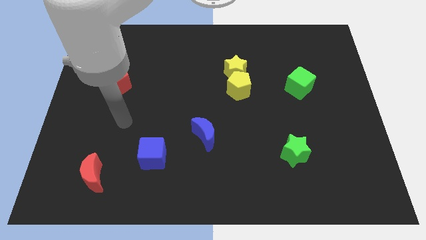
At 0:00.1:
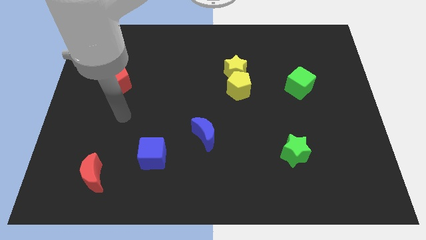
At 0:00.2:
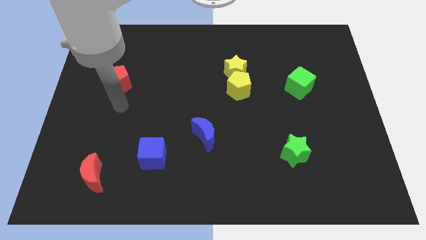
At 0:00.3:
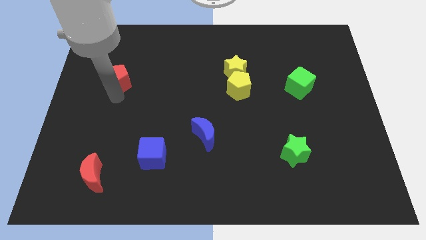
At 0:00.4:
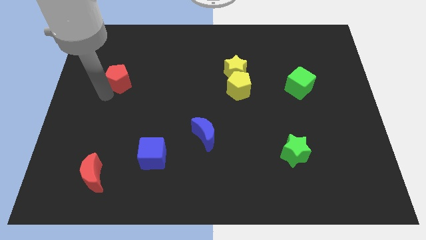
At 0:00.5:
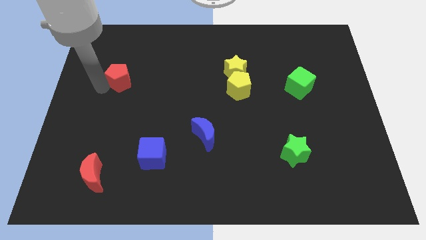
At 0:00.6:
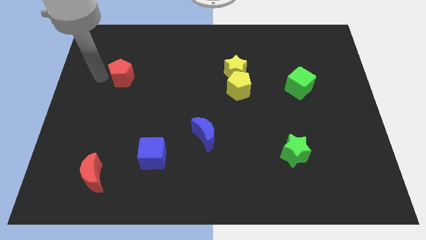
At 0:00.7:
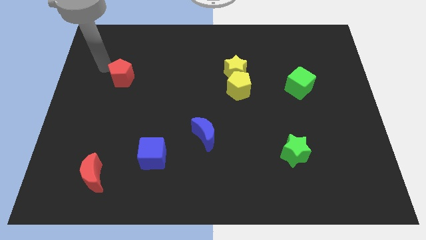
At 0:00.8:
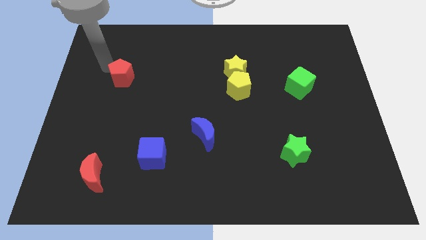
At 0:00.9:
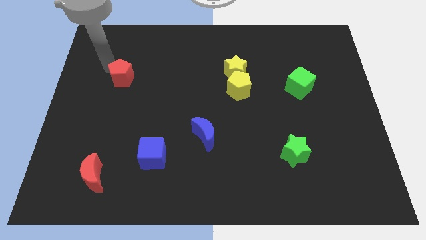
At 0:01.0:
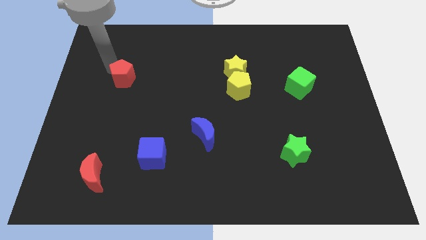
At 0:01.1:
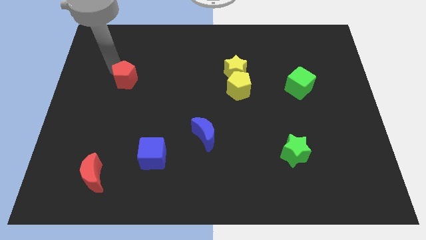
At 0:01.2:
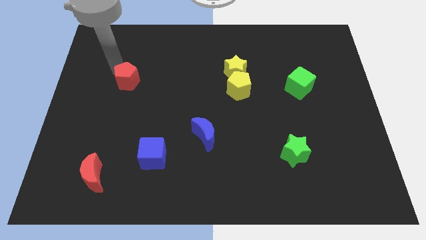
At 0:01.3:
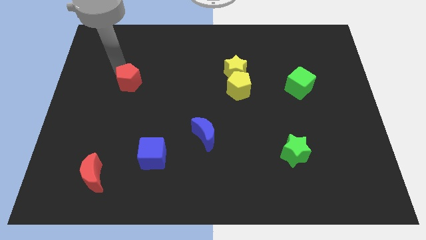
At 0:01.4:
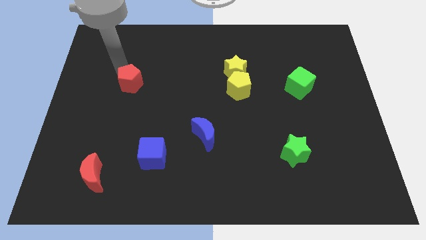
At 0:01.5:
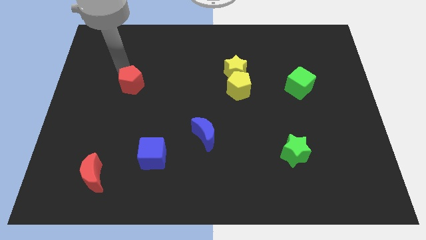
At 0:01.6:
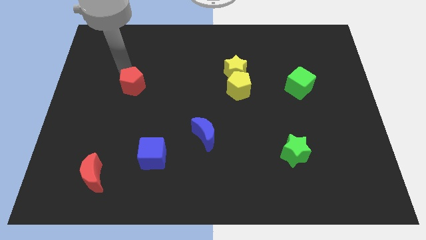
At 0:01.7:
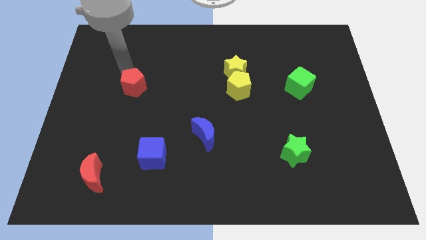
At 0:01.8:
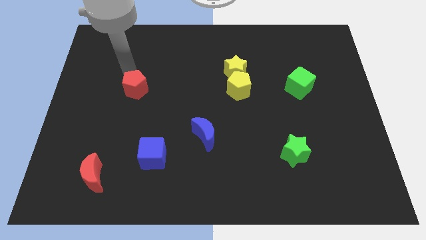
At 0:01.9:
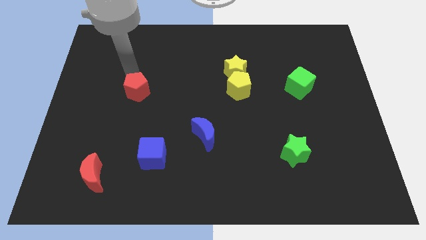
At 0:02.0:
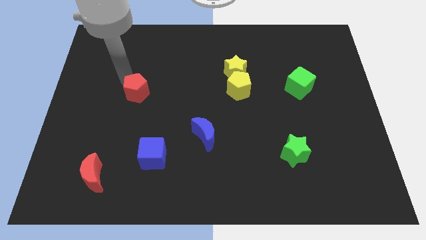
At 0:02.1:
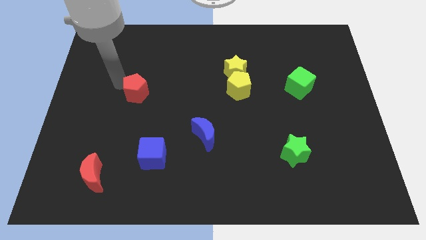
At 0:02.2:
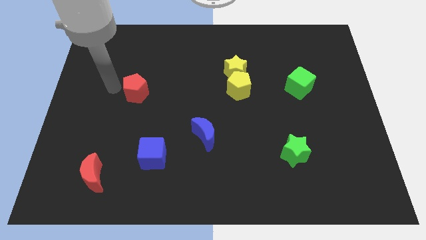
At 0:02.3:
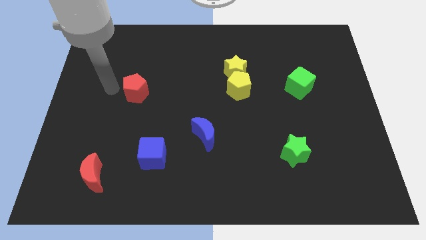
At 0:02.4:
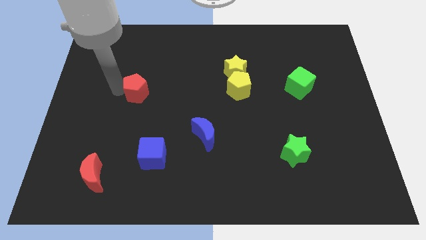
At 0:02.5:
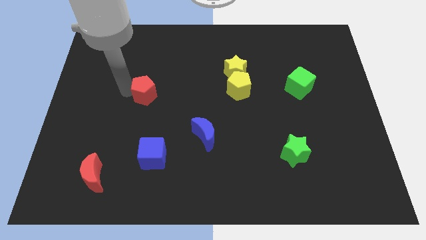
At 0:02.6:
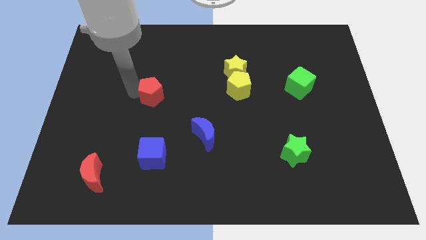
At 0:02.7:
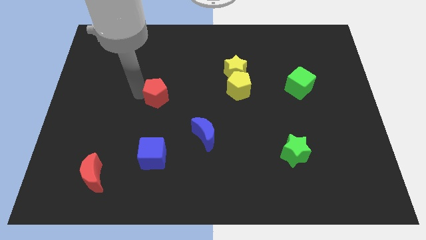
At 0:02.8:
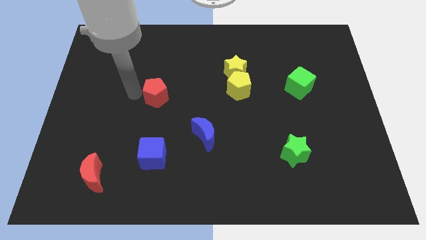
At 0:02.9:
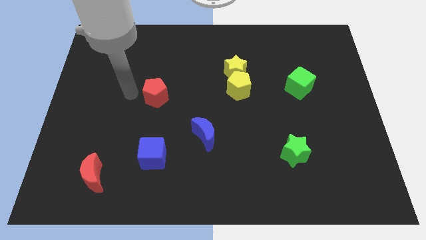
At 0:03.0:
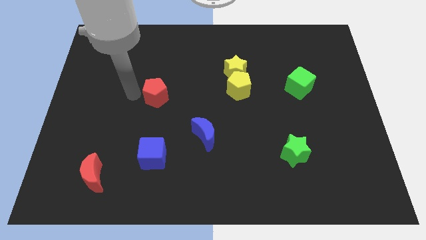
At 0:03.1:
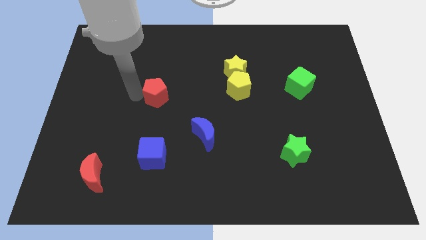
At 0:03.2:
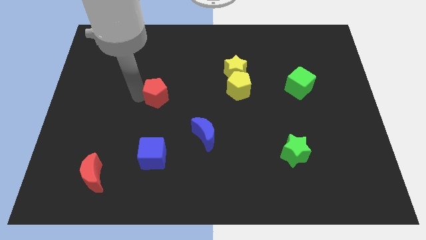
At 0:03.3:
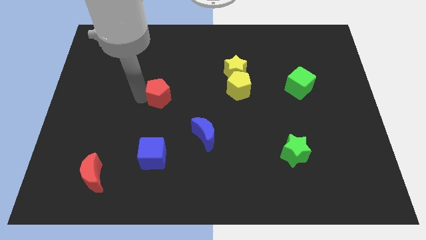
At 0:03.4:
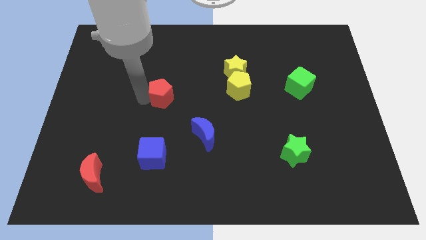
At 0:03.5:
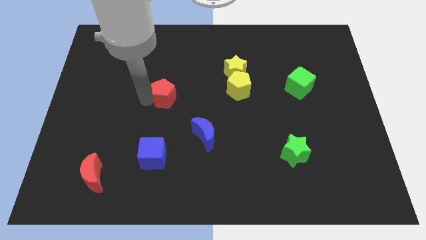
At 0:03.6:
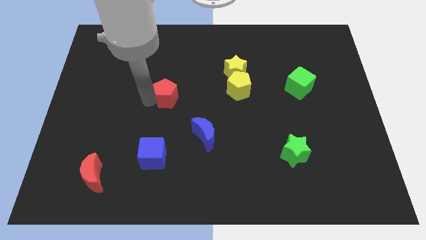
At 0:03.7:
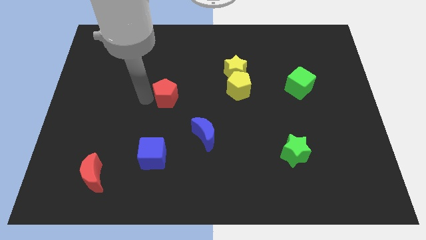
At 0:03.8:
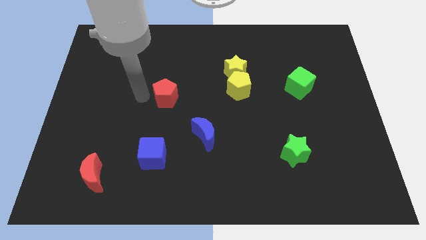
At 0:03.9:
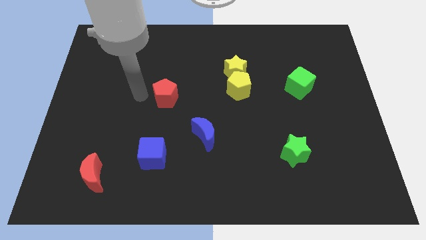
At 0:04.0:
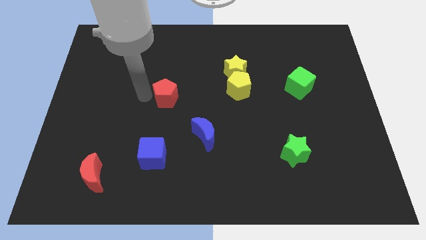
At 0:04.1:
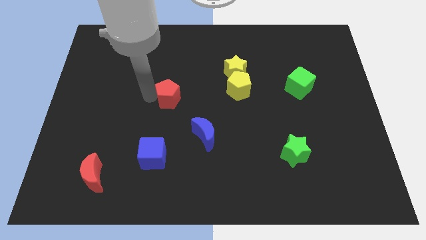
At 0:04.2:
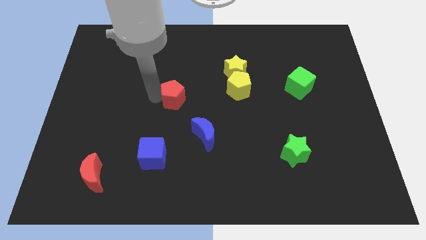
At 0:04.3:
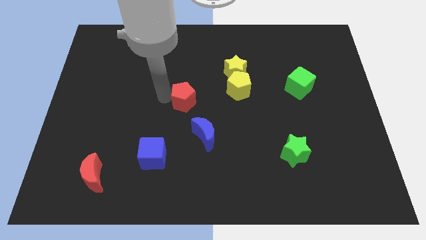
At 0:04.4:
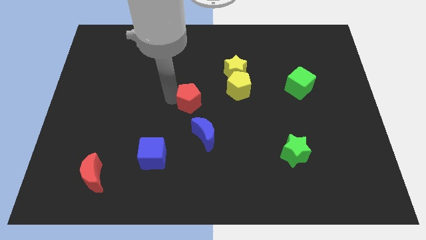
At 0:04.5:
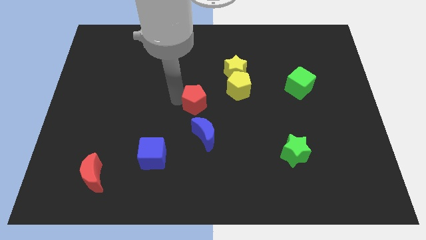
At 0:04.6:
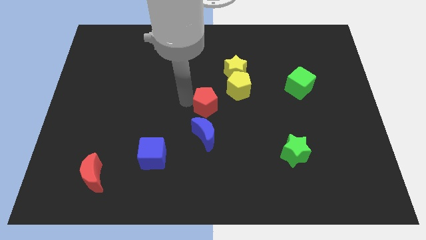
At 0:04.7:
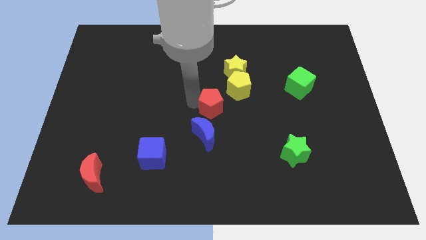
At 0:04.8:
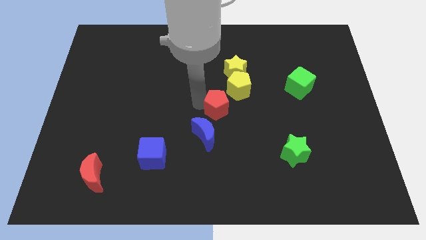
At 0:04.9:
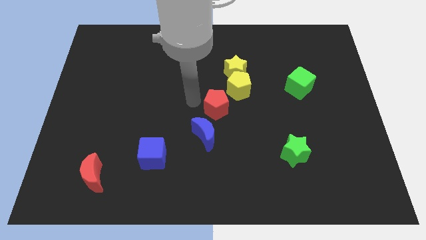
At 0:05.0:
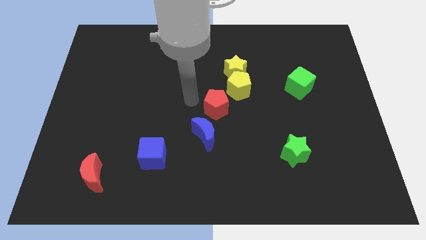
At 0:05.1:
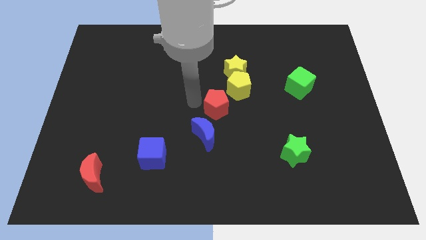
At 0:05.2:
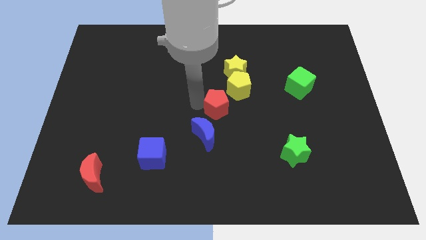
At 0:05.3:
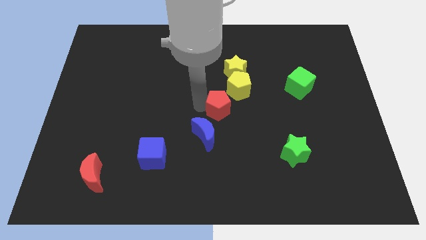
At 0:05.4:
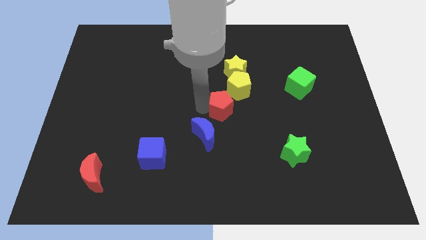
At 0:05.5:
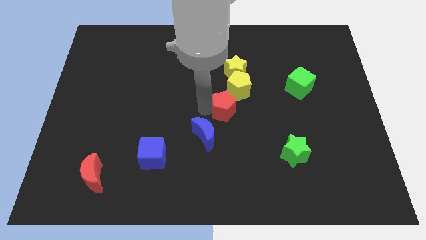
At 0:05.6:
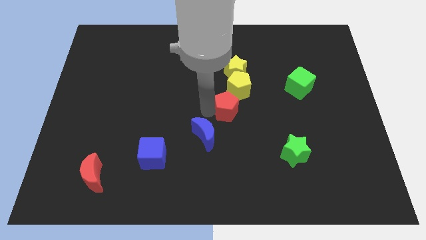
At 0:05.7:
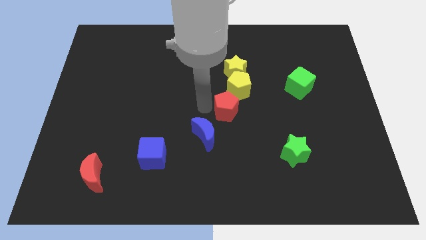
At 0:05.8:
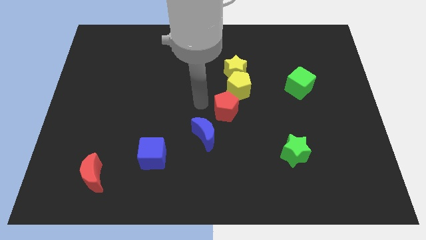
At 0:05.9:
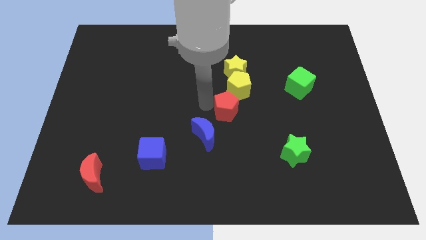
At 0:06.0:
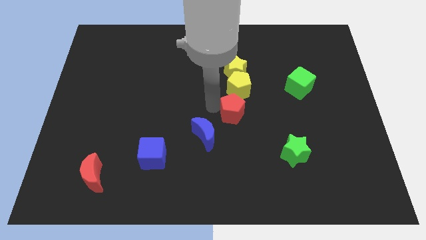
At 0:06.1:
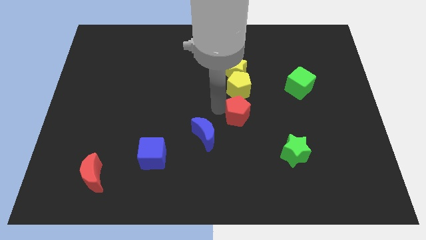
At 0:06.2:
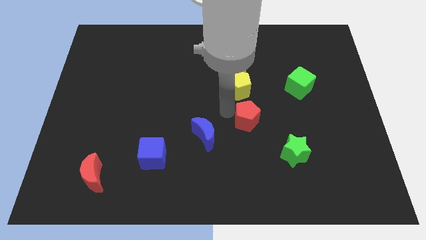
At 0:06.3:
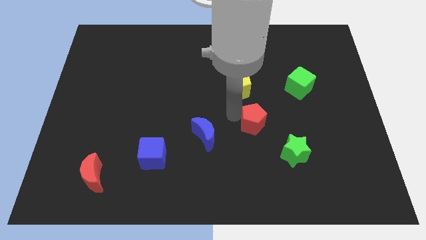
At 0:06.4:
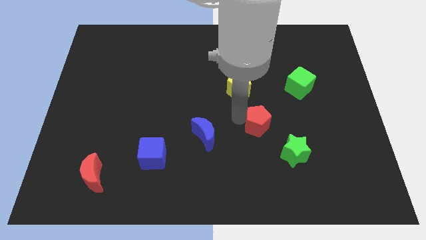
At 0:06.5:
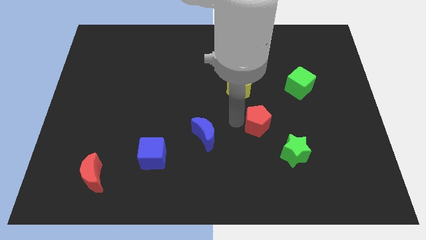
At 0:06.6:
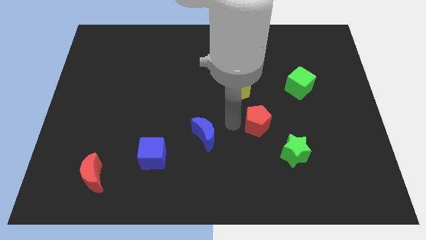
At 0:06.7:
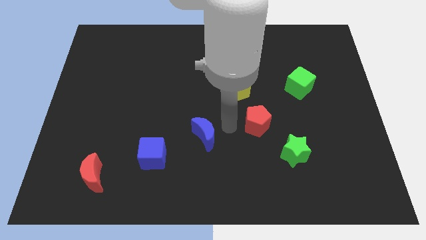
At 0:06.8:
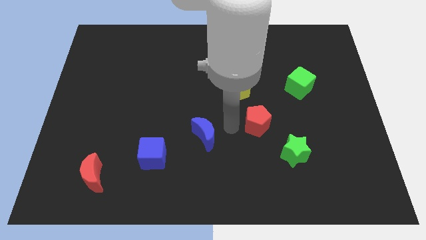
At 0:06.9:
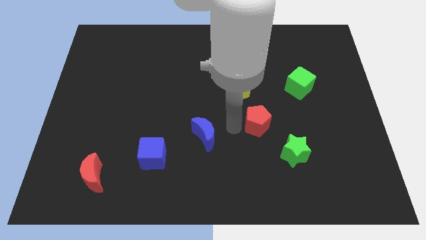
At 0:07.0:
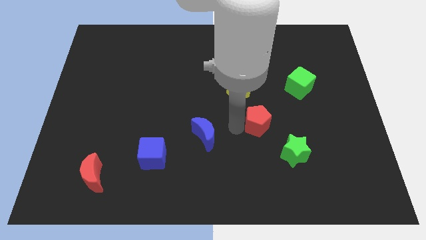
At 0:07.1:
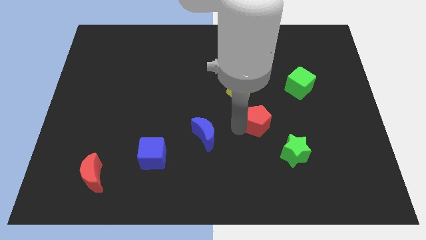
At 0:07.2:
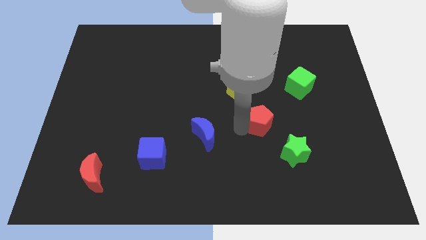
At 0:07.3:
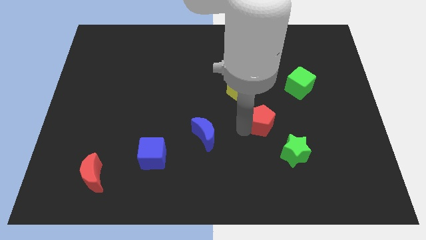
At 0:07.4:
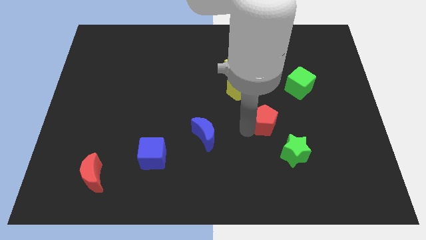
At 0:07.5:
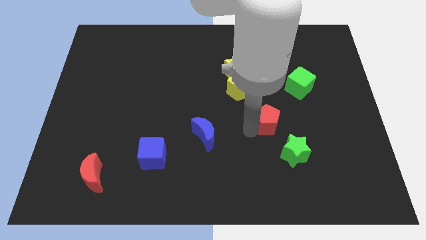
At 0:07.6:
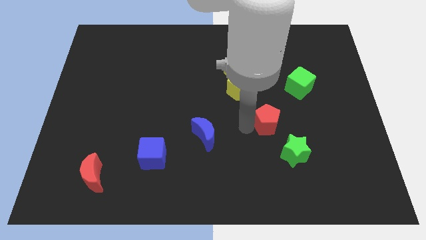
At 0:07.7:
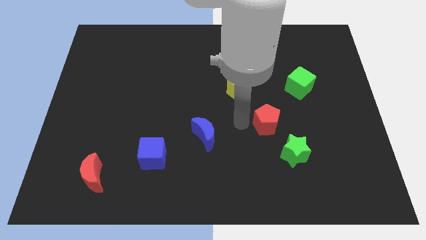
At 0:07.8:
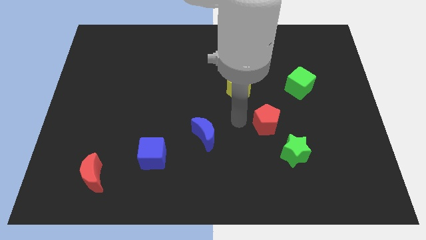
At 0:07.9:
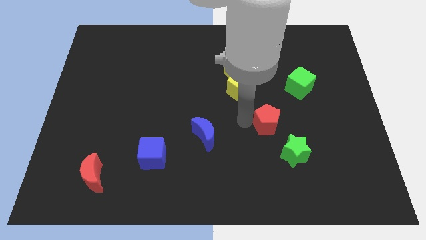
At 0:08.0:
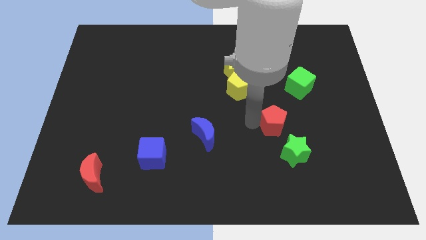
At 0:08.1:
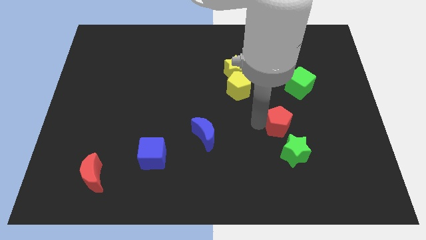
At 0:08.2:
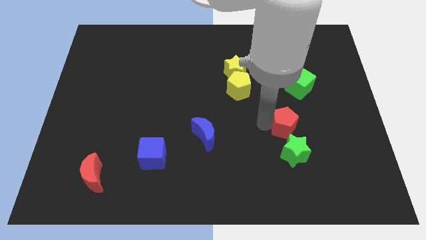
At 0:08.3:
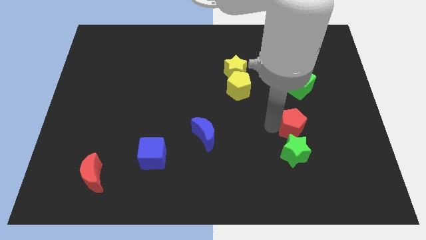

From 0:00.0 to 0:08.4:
move the red pentagon to the bottom of the green cube
